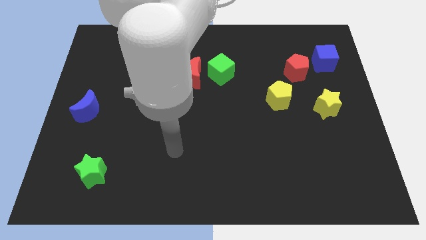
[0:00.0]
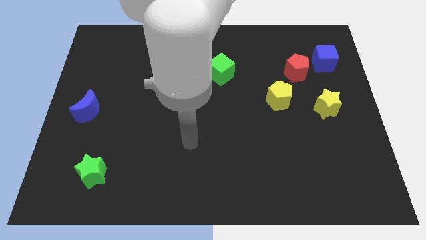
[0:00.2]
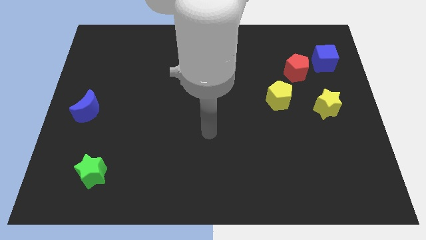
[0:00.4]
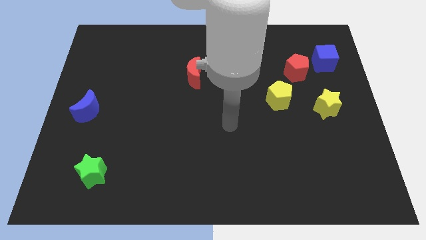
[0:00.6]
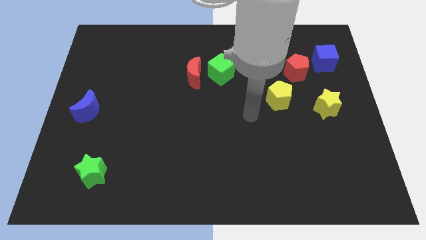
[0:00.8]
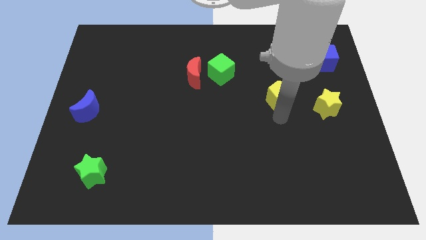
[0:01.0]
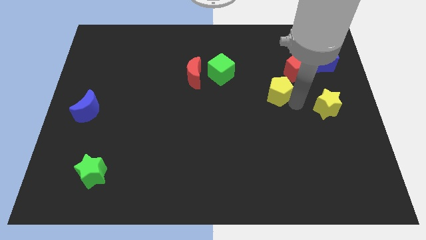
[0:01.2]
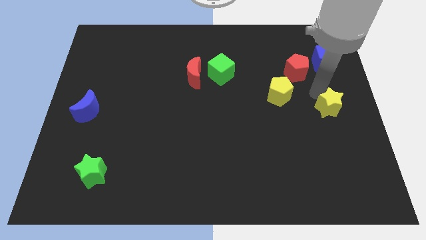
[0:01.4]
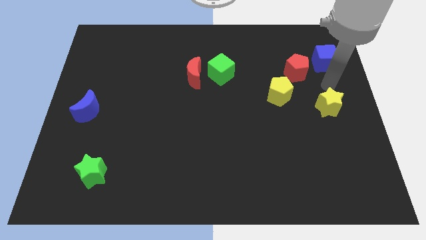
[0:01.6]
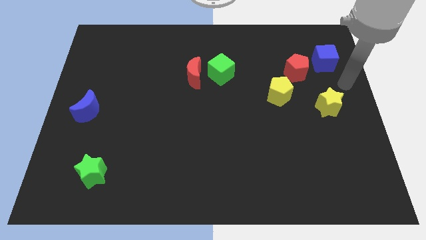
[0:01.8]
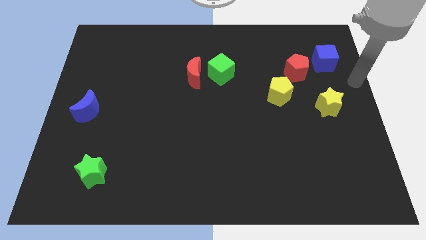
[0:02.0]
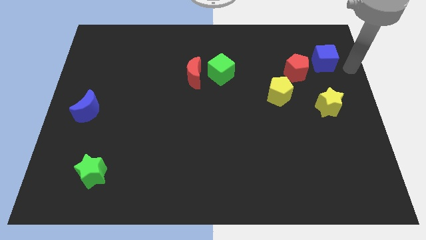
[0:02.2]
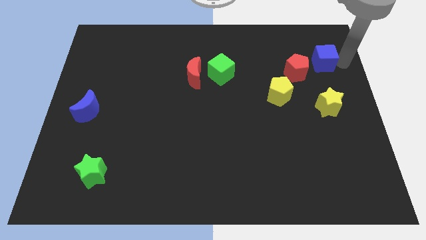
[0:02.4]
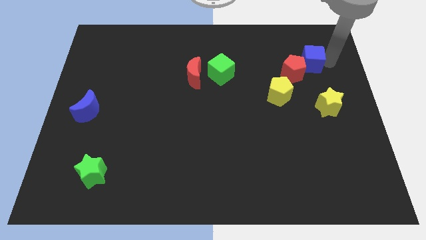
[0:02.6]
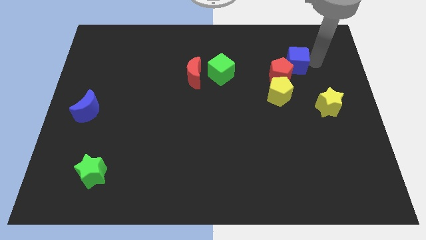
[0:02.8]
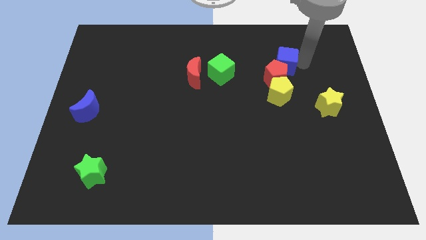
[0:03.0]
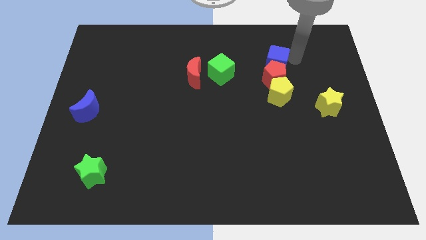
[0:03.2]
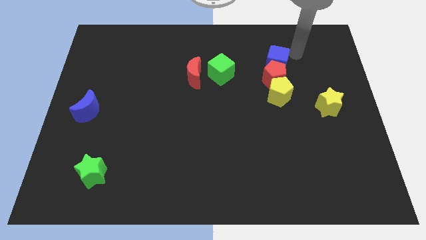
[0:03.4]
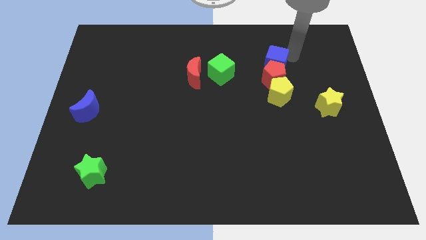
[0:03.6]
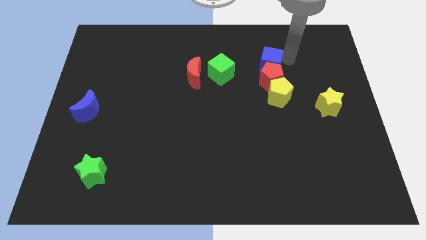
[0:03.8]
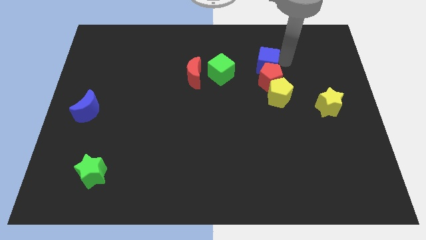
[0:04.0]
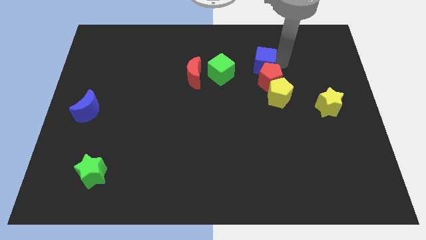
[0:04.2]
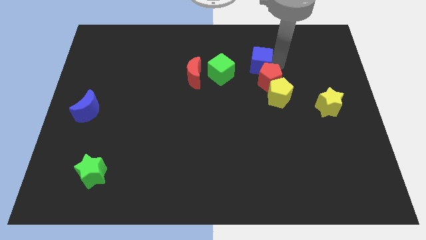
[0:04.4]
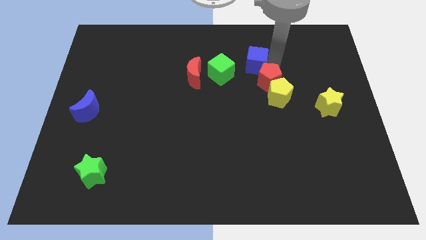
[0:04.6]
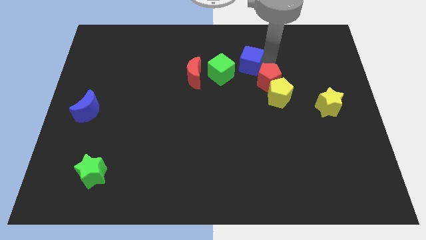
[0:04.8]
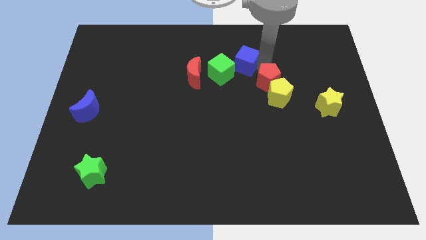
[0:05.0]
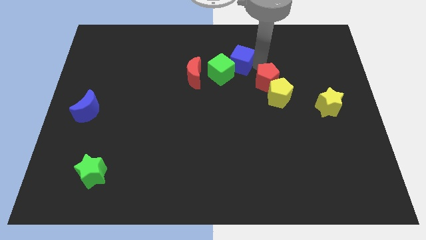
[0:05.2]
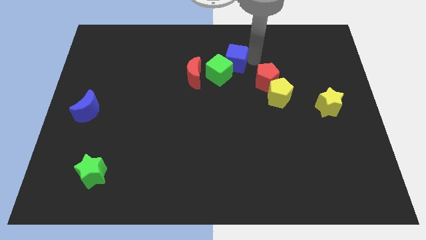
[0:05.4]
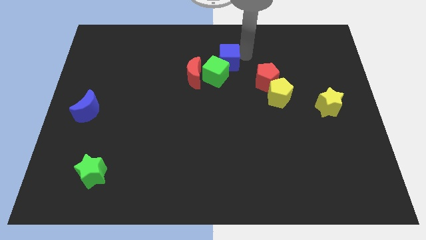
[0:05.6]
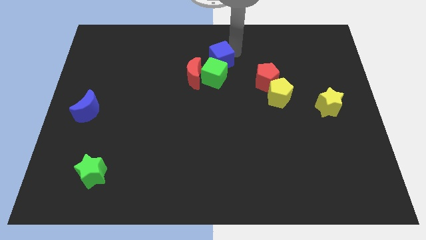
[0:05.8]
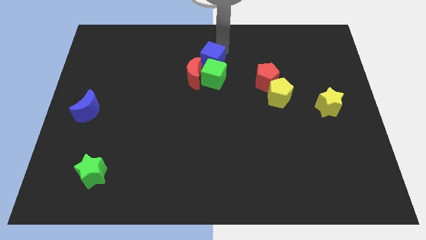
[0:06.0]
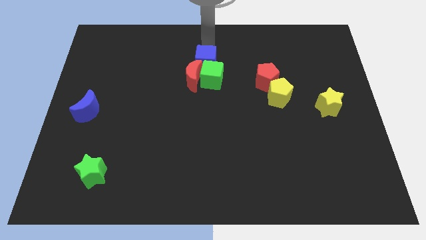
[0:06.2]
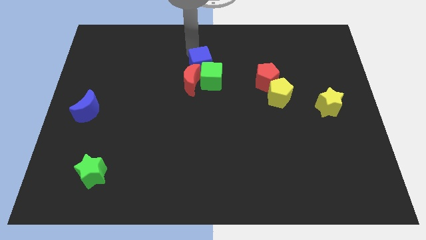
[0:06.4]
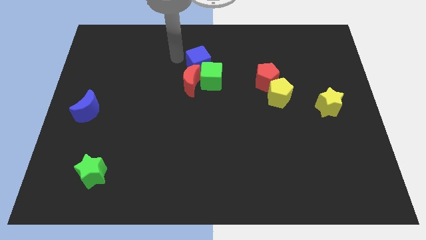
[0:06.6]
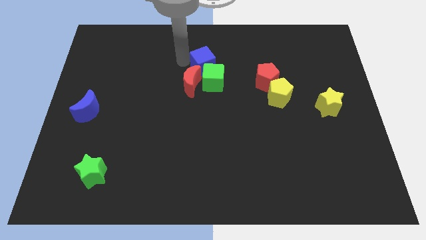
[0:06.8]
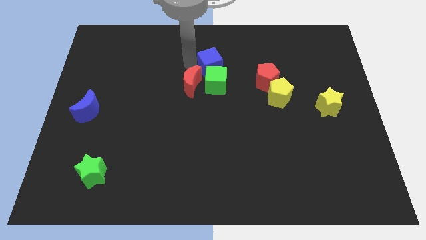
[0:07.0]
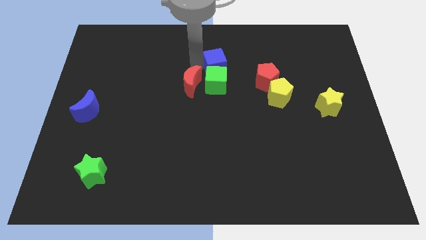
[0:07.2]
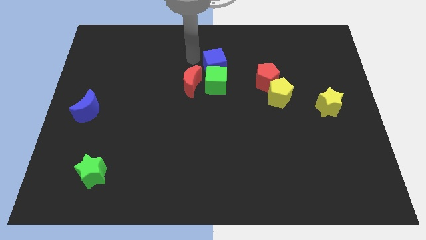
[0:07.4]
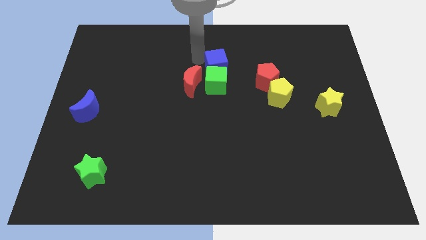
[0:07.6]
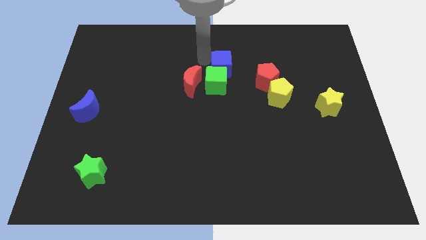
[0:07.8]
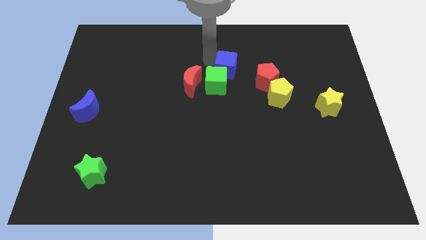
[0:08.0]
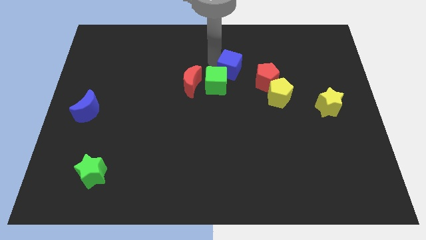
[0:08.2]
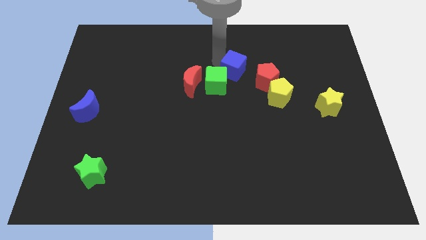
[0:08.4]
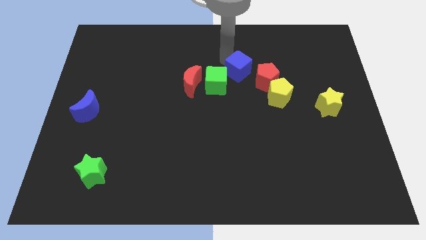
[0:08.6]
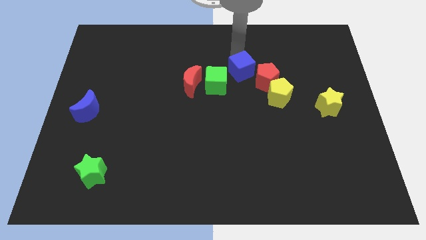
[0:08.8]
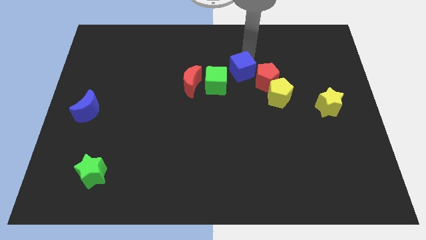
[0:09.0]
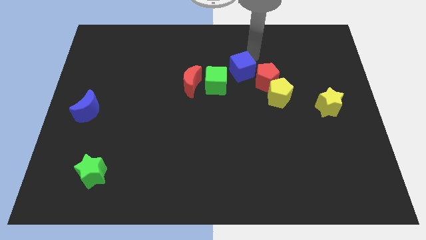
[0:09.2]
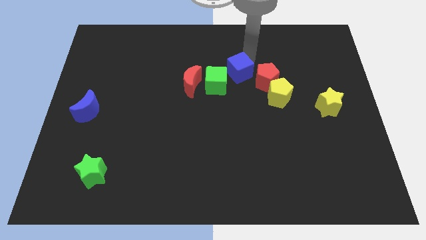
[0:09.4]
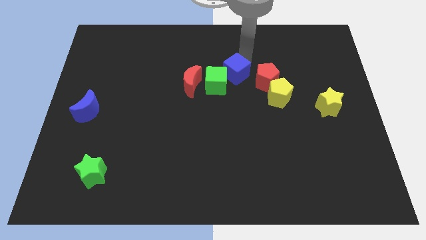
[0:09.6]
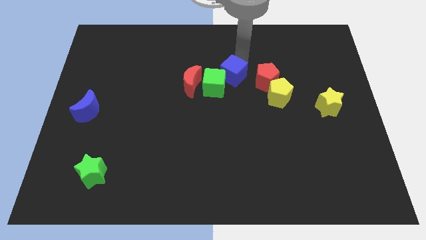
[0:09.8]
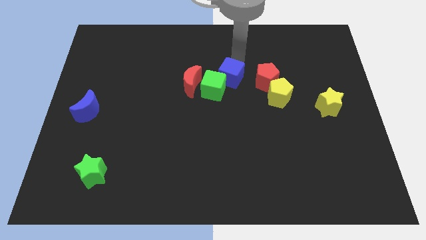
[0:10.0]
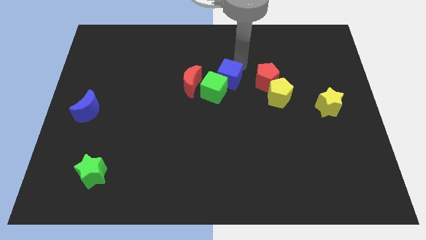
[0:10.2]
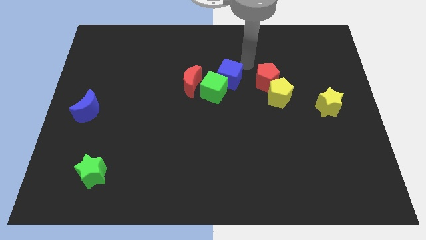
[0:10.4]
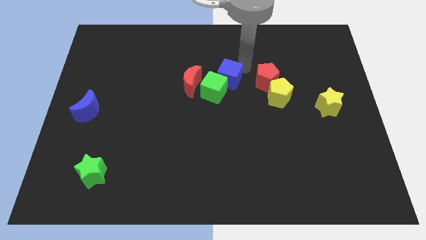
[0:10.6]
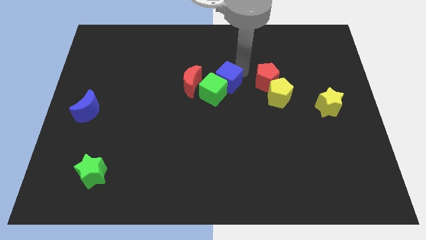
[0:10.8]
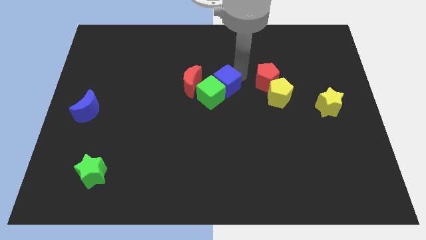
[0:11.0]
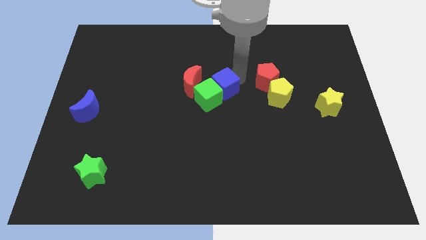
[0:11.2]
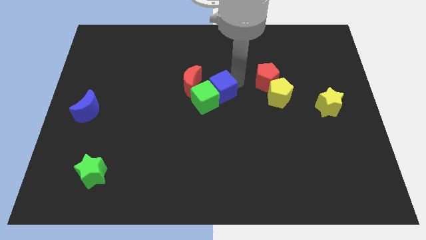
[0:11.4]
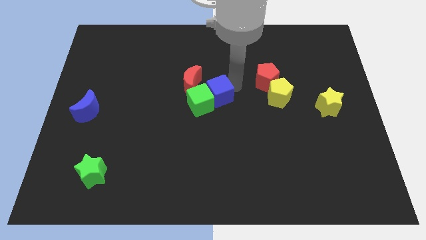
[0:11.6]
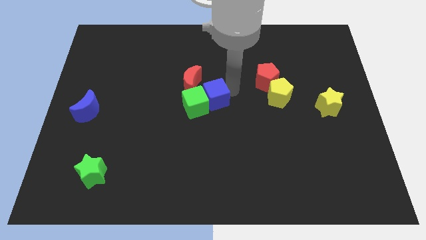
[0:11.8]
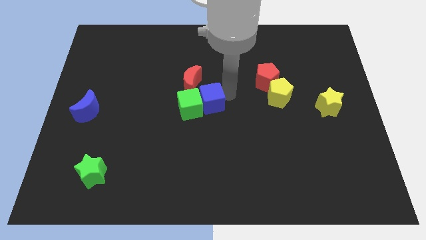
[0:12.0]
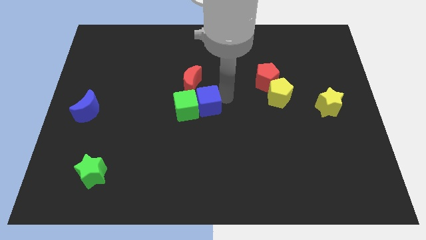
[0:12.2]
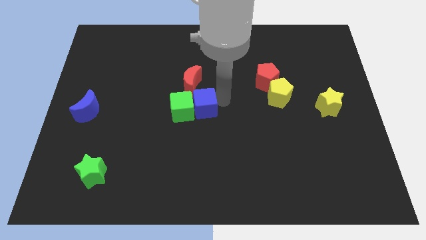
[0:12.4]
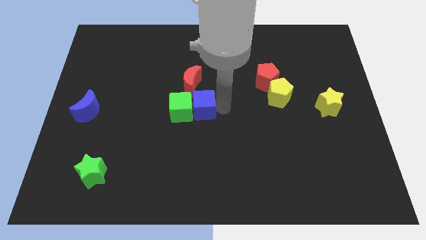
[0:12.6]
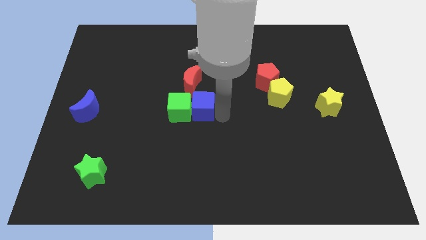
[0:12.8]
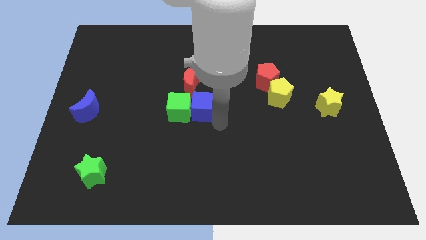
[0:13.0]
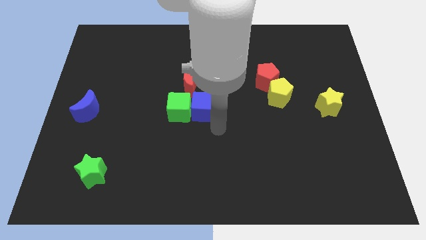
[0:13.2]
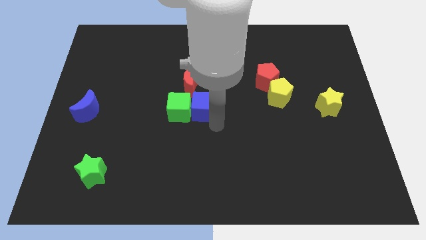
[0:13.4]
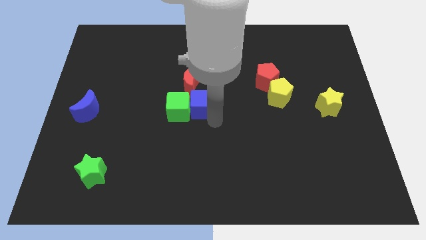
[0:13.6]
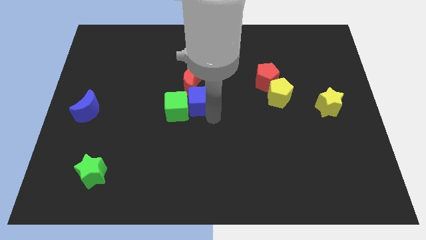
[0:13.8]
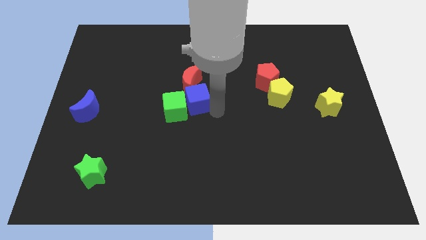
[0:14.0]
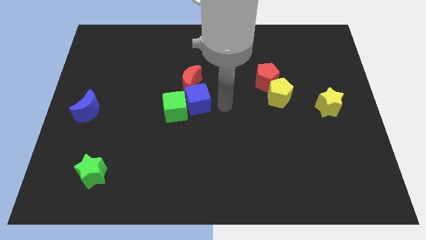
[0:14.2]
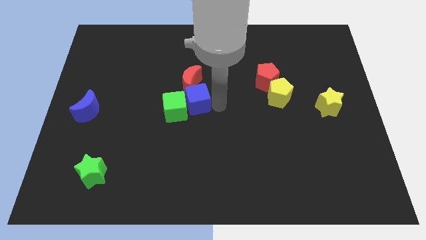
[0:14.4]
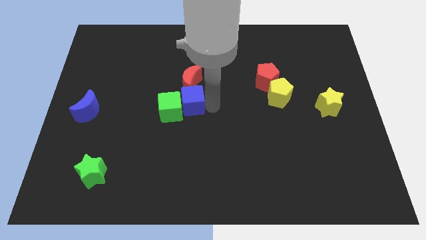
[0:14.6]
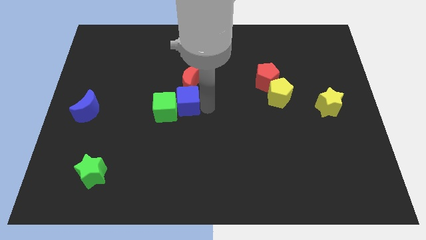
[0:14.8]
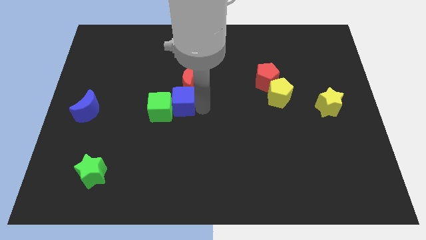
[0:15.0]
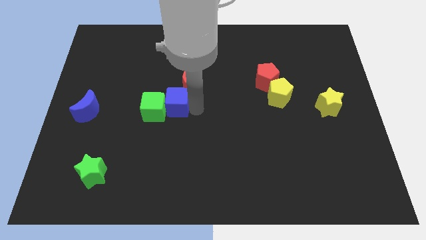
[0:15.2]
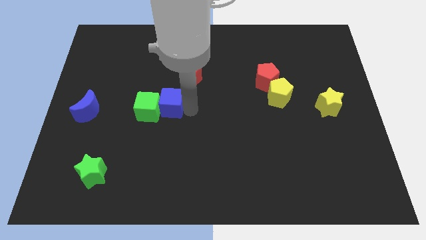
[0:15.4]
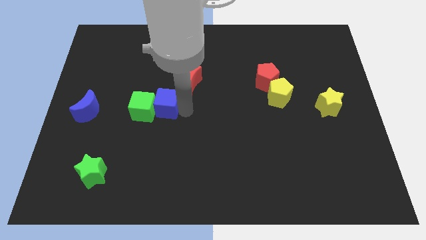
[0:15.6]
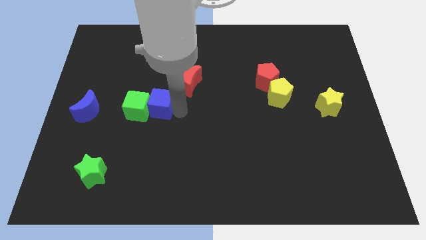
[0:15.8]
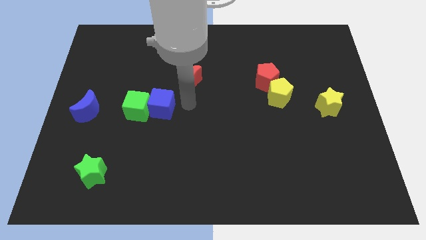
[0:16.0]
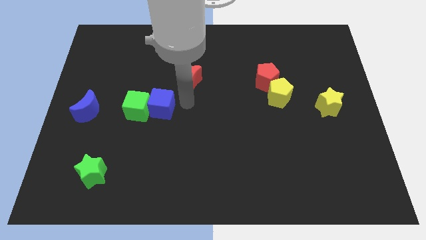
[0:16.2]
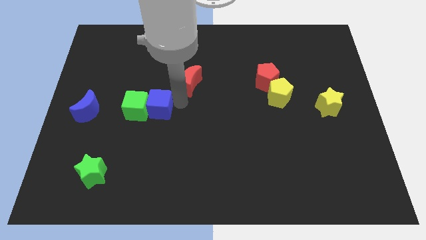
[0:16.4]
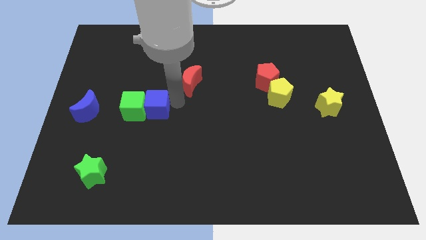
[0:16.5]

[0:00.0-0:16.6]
push the blue cube right of the blue moon
